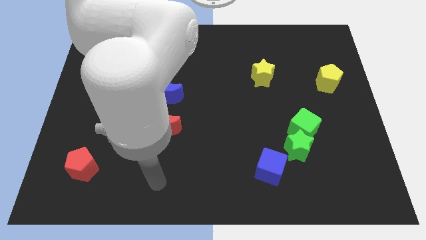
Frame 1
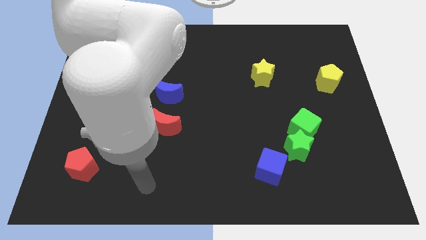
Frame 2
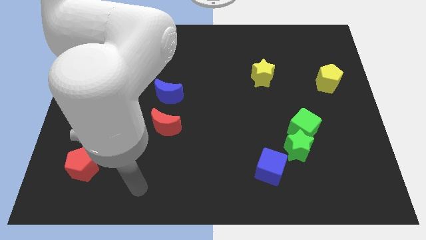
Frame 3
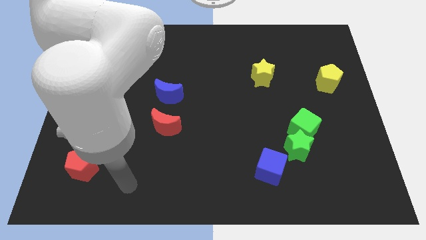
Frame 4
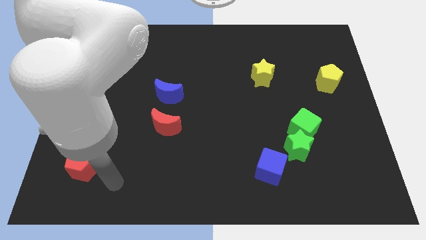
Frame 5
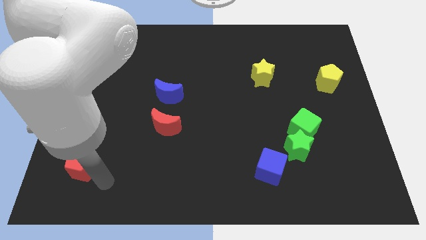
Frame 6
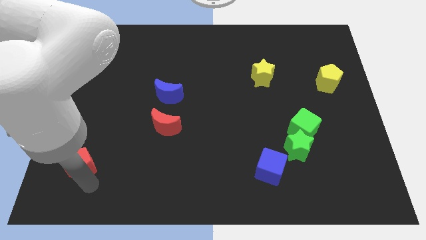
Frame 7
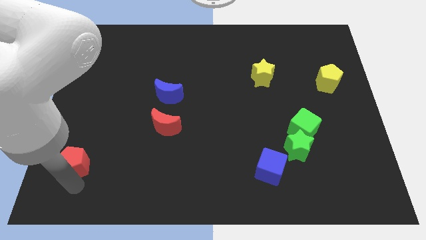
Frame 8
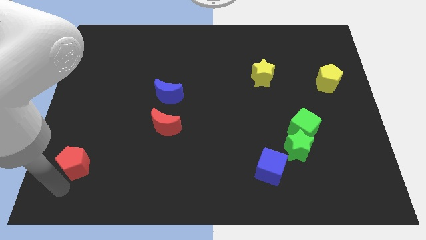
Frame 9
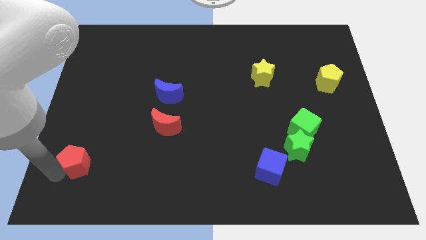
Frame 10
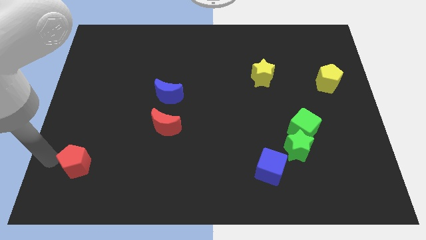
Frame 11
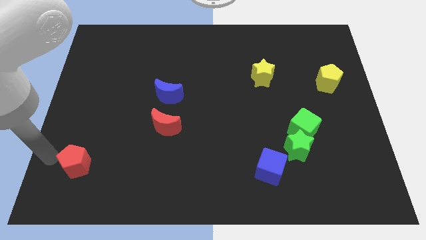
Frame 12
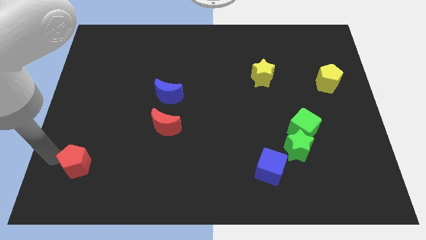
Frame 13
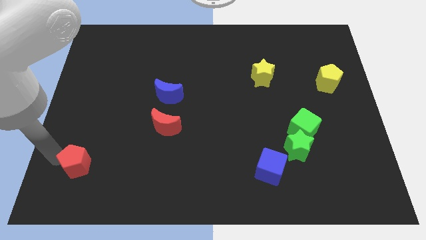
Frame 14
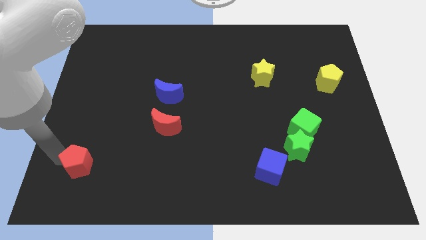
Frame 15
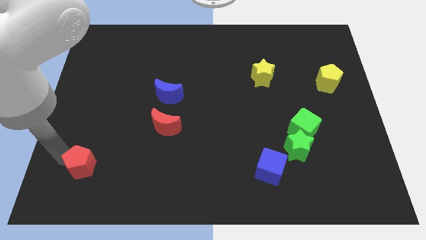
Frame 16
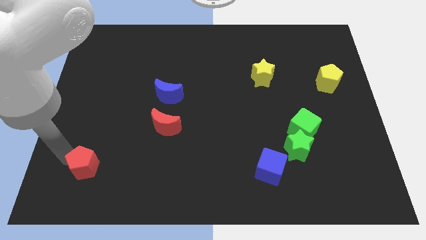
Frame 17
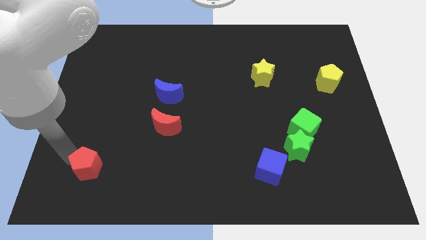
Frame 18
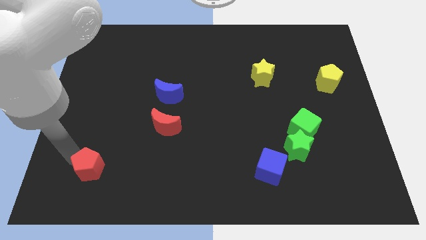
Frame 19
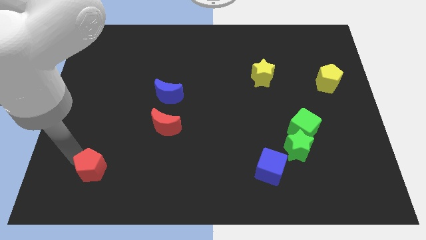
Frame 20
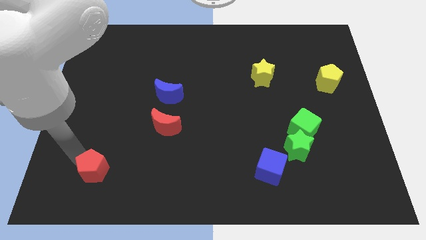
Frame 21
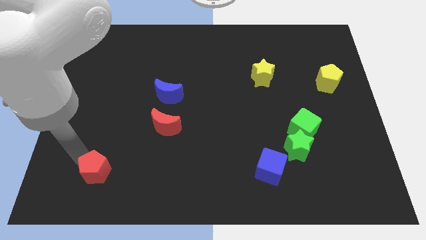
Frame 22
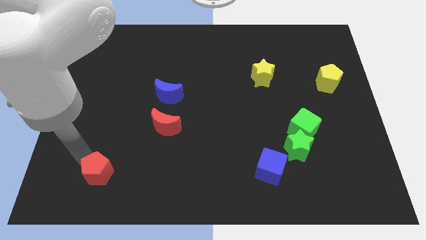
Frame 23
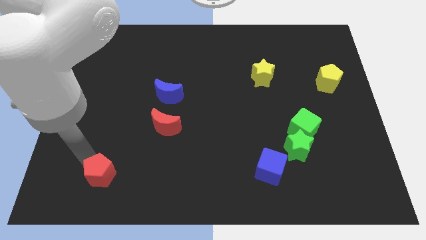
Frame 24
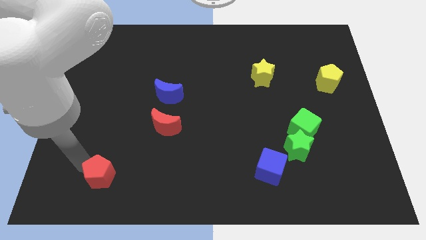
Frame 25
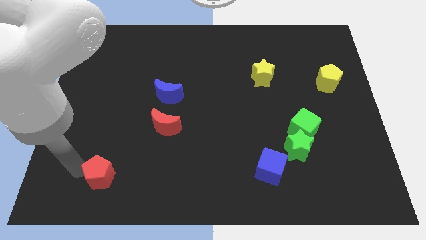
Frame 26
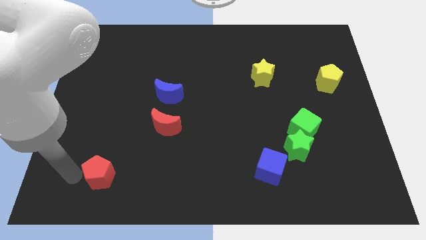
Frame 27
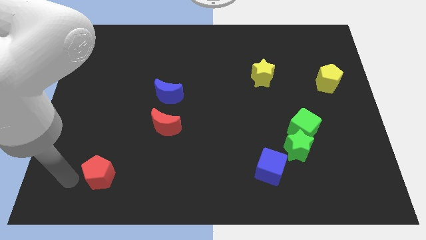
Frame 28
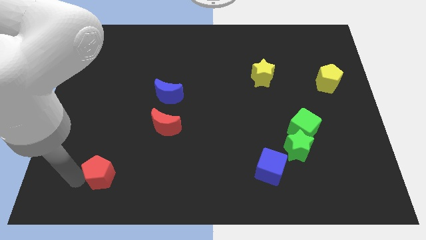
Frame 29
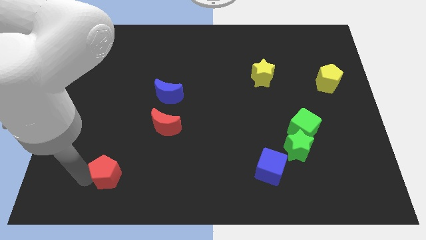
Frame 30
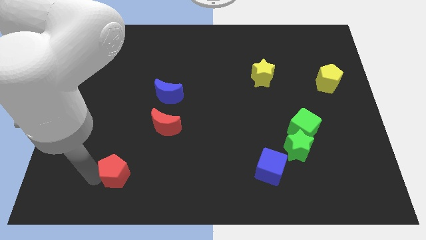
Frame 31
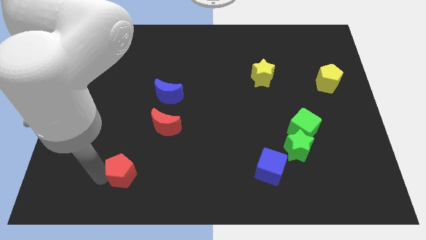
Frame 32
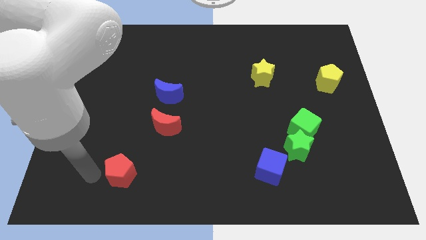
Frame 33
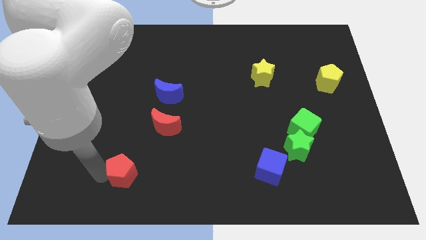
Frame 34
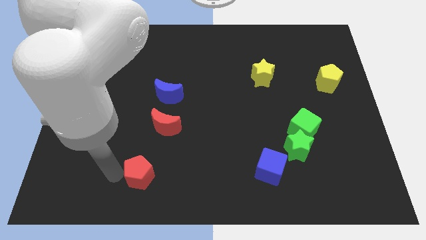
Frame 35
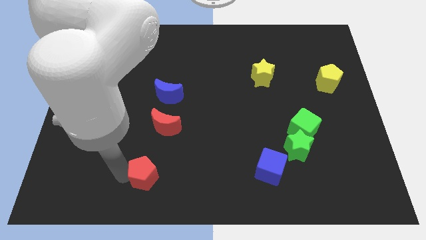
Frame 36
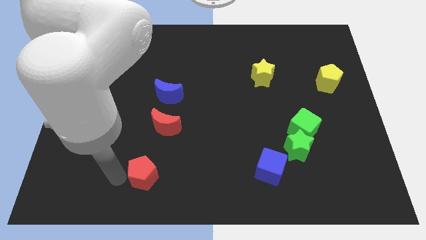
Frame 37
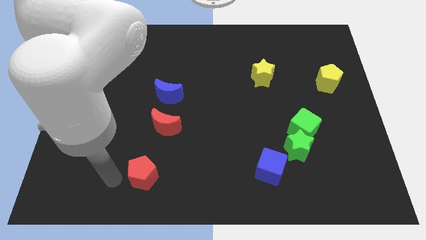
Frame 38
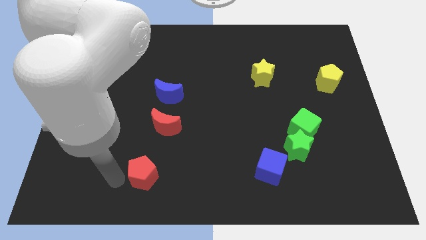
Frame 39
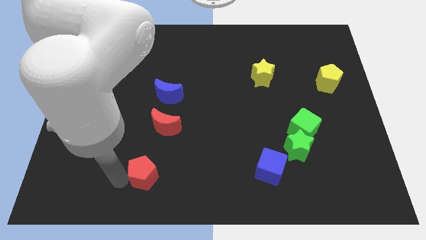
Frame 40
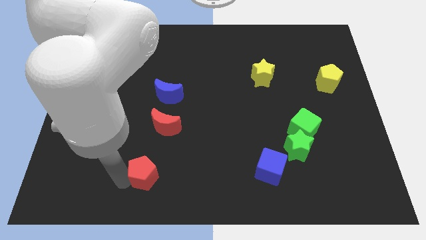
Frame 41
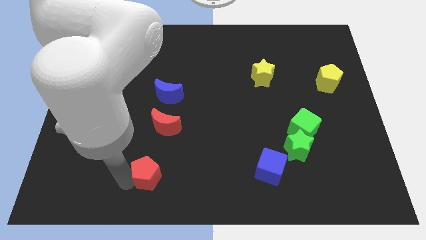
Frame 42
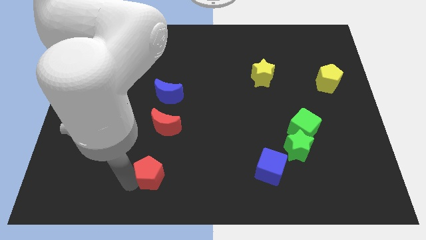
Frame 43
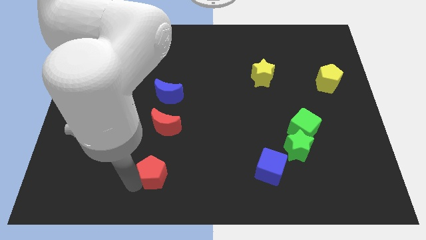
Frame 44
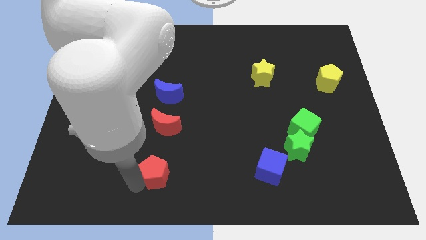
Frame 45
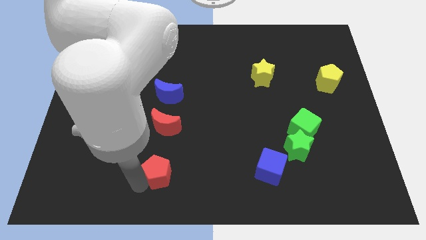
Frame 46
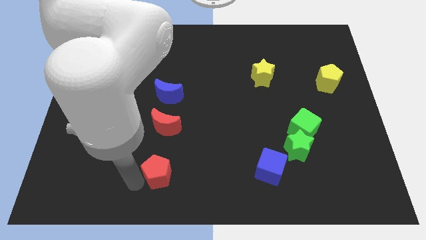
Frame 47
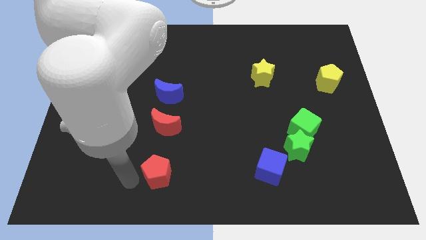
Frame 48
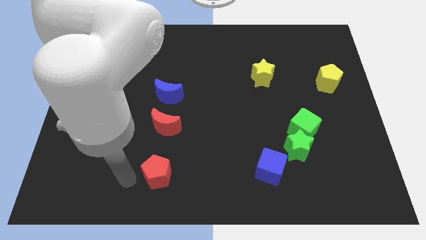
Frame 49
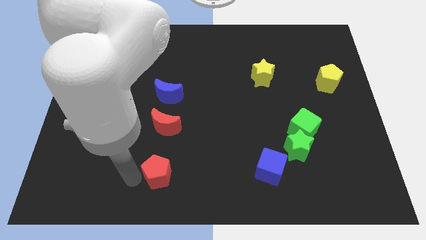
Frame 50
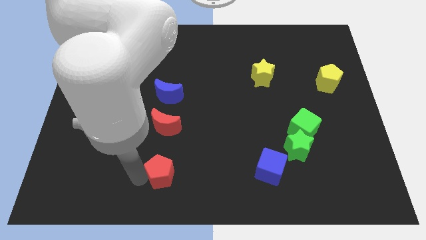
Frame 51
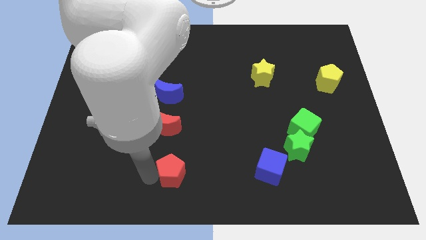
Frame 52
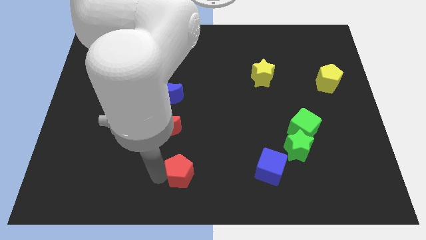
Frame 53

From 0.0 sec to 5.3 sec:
push the red pentagon to the right

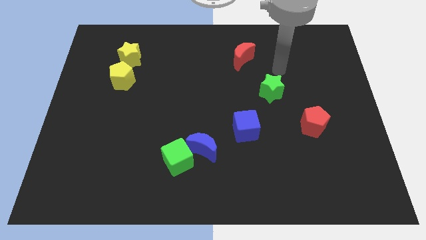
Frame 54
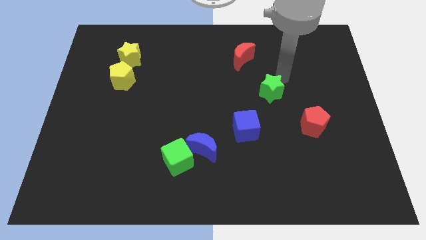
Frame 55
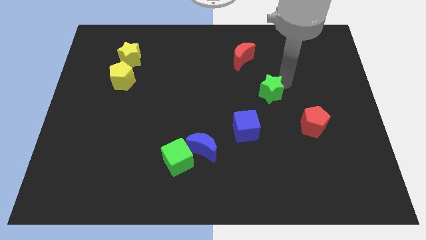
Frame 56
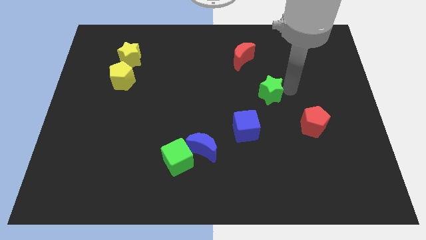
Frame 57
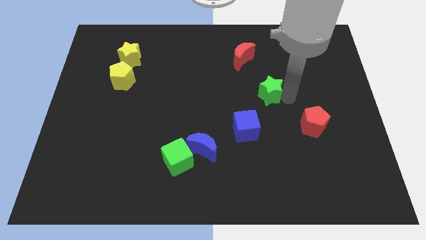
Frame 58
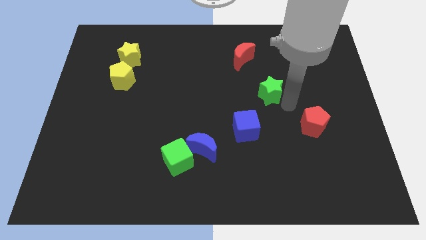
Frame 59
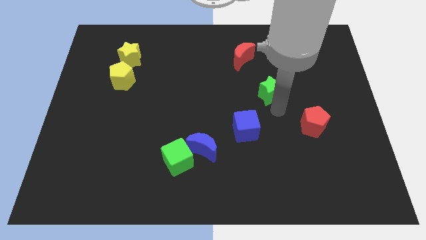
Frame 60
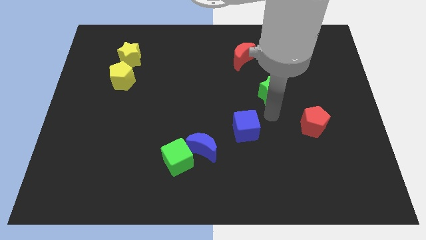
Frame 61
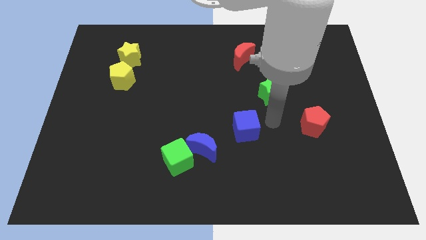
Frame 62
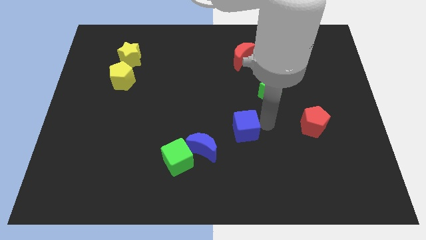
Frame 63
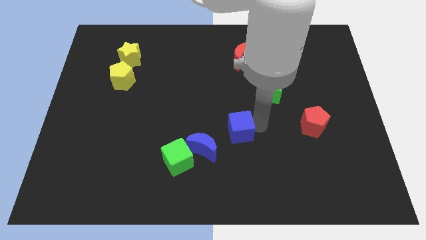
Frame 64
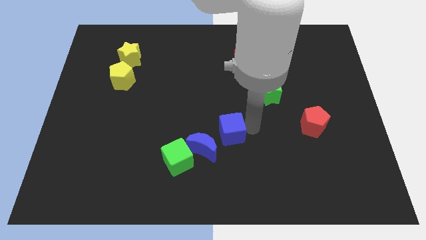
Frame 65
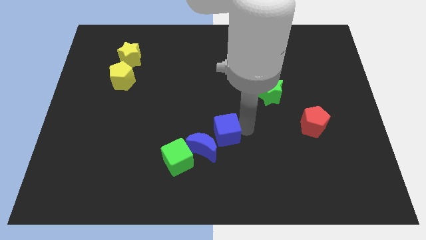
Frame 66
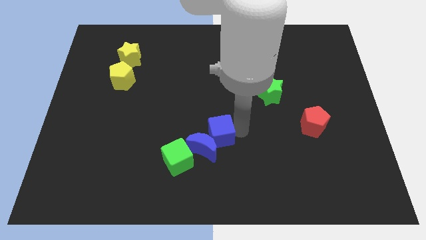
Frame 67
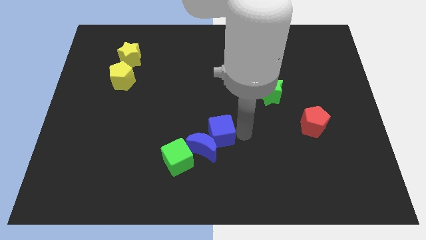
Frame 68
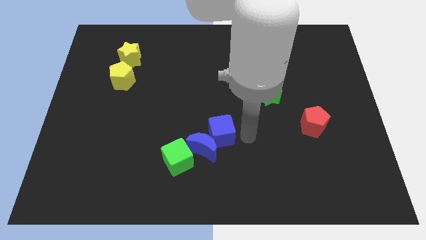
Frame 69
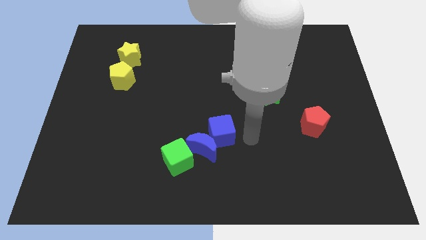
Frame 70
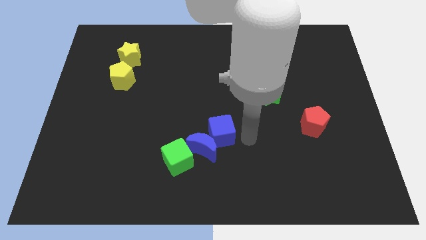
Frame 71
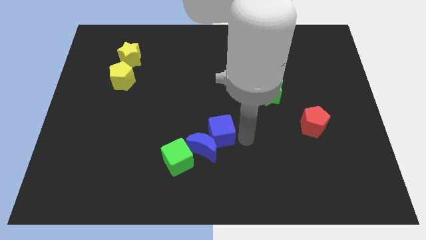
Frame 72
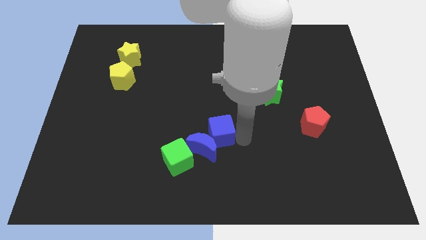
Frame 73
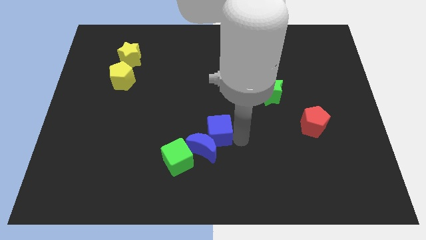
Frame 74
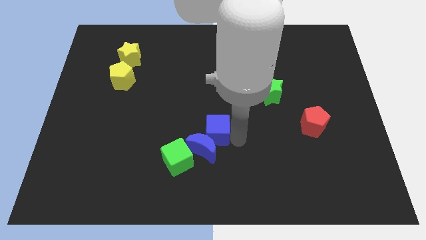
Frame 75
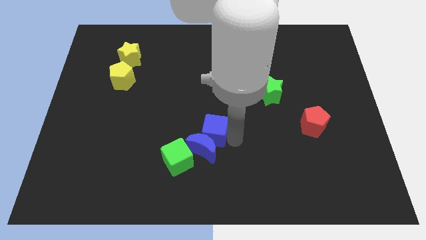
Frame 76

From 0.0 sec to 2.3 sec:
move the blue cube somewhat left

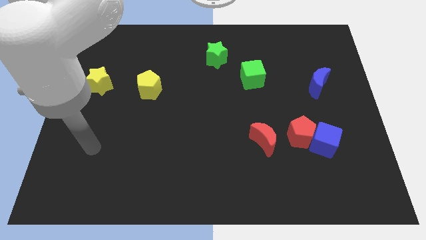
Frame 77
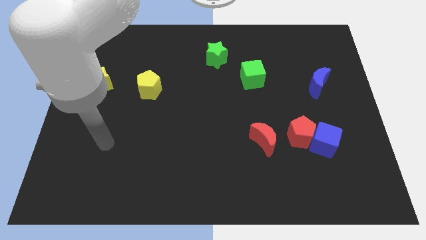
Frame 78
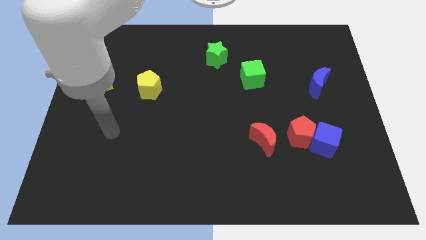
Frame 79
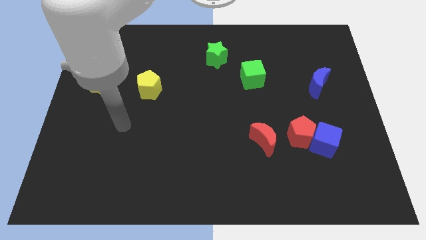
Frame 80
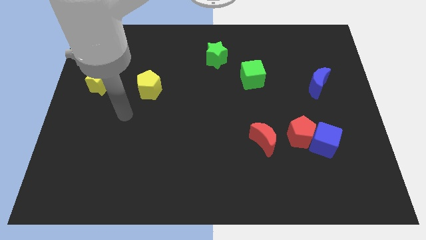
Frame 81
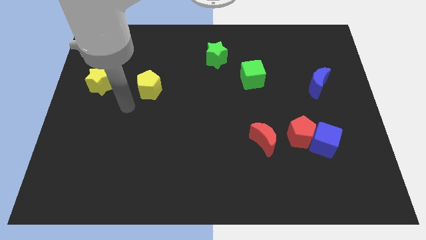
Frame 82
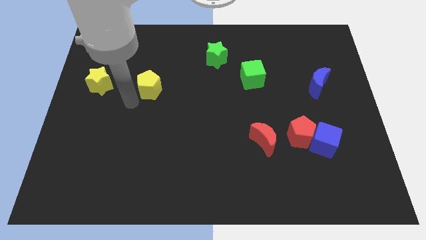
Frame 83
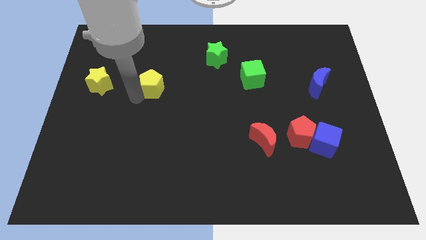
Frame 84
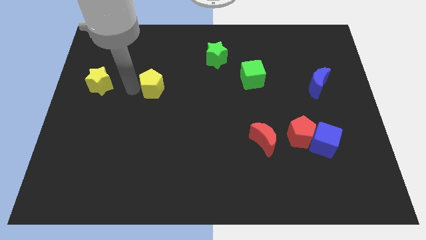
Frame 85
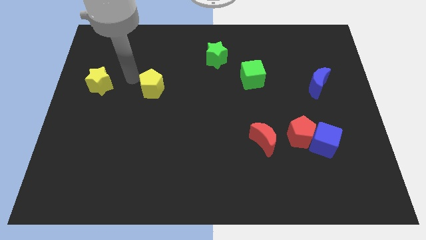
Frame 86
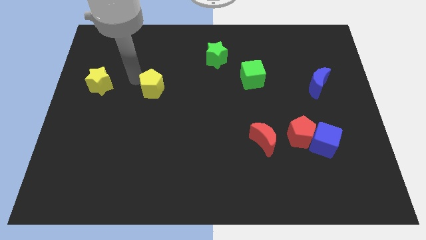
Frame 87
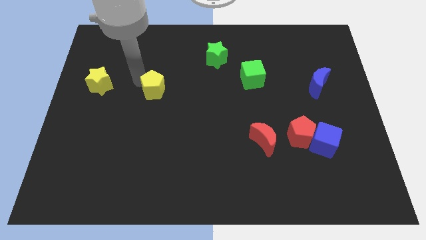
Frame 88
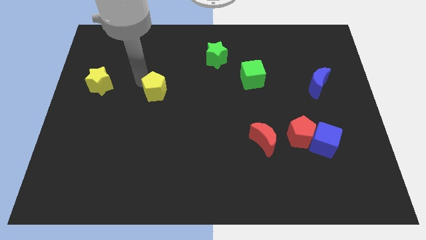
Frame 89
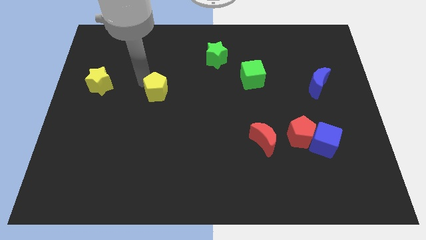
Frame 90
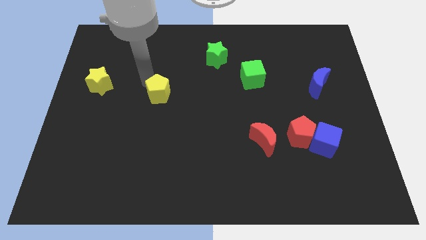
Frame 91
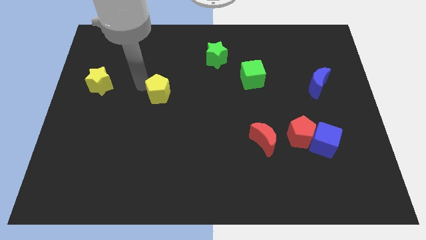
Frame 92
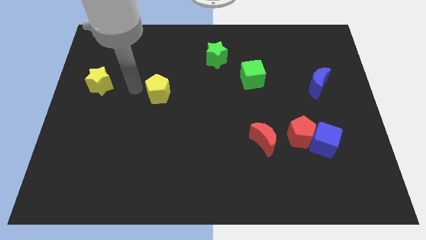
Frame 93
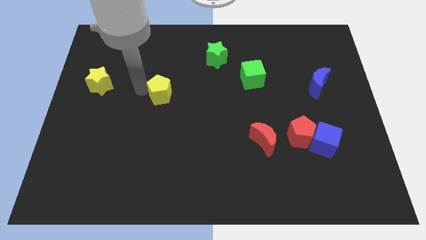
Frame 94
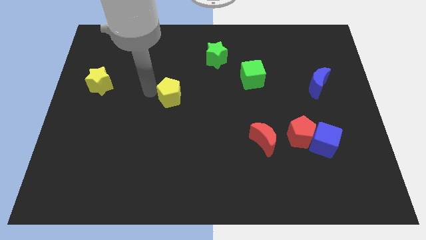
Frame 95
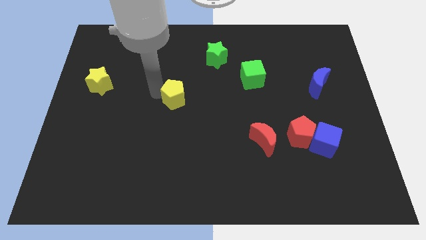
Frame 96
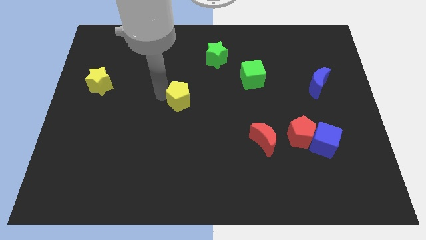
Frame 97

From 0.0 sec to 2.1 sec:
move the yellow pentagon right a little
